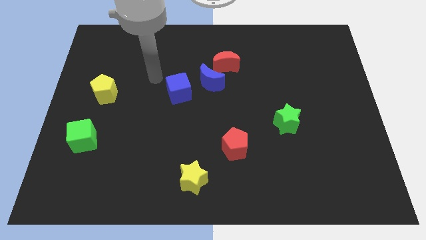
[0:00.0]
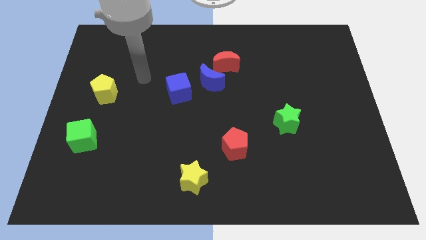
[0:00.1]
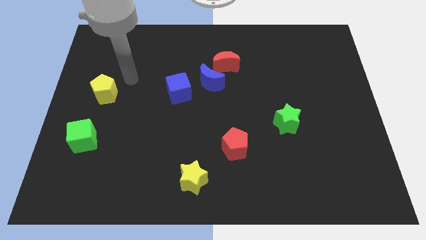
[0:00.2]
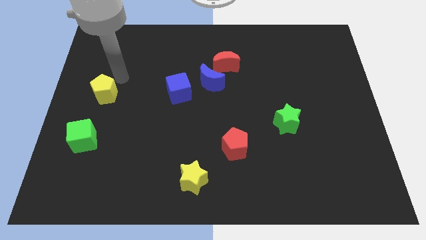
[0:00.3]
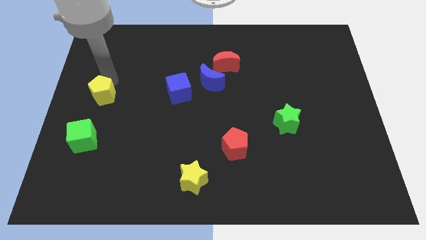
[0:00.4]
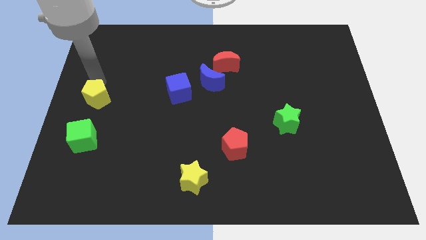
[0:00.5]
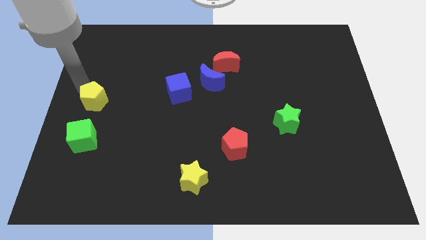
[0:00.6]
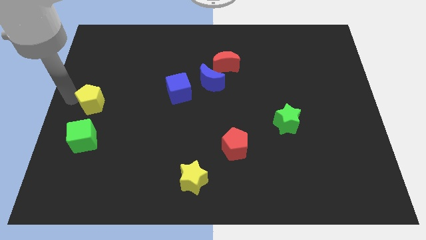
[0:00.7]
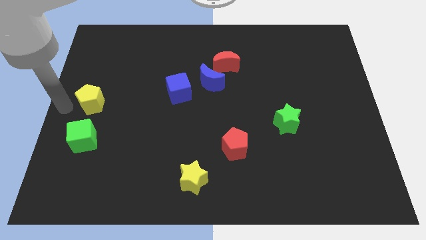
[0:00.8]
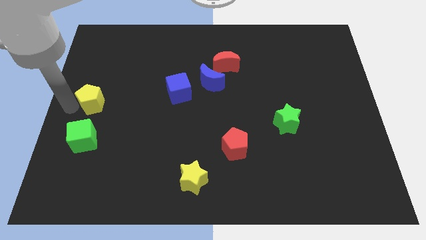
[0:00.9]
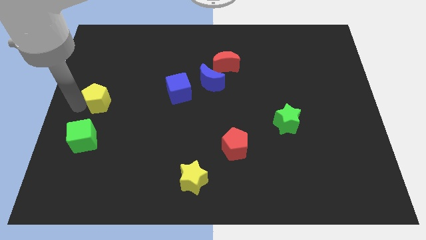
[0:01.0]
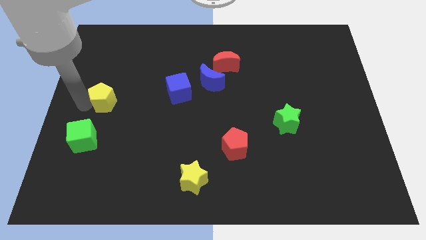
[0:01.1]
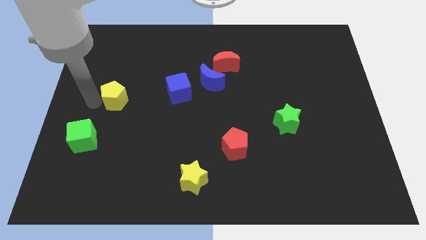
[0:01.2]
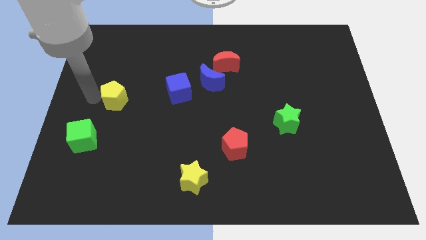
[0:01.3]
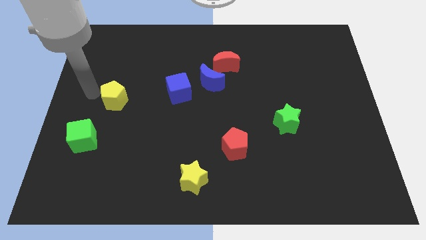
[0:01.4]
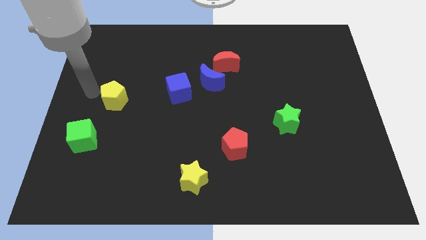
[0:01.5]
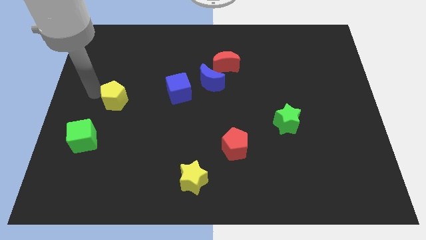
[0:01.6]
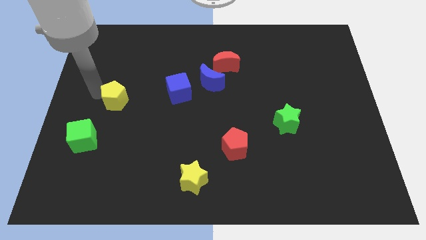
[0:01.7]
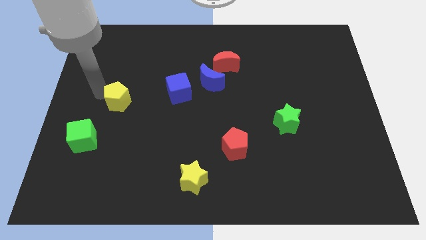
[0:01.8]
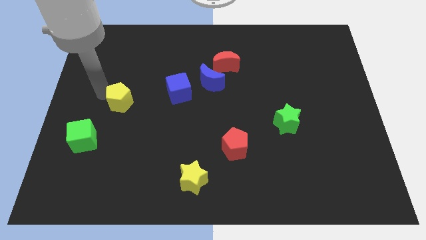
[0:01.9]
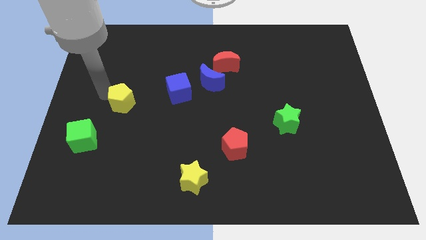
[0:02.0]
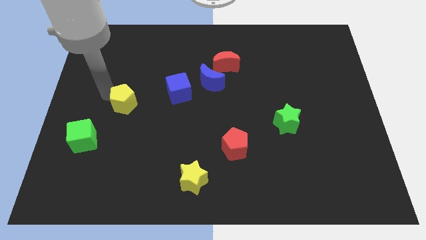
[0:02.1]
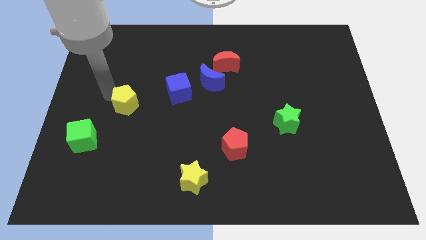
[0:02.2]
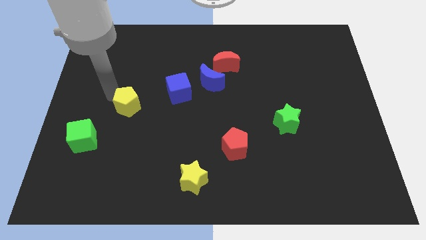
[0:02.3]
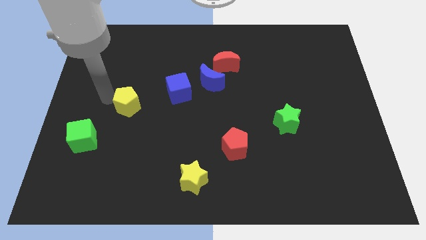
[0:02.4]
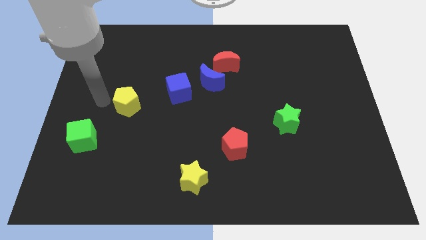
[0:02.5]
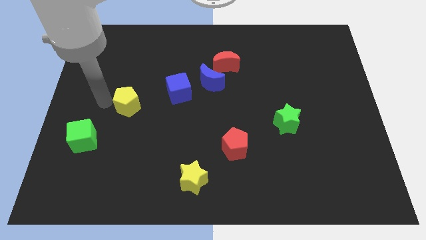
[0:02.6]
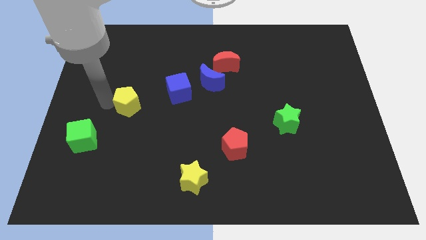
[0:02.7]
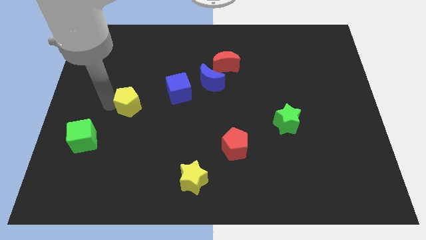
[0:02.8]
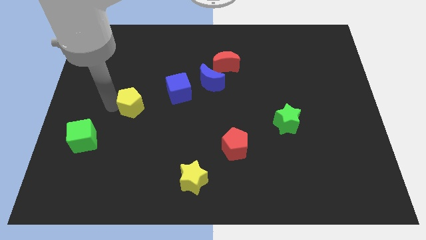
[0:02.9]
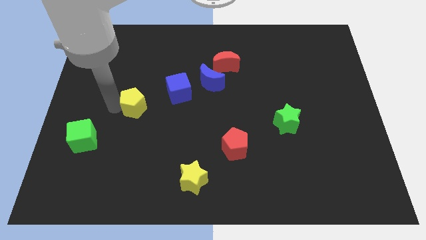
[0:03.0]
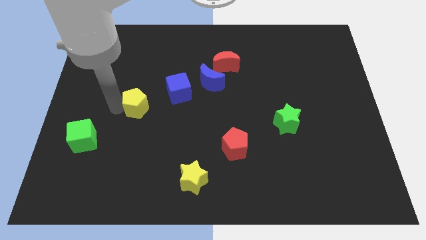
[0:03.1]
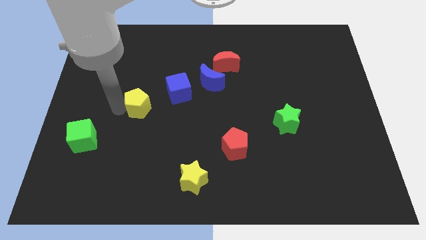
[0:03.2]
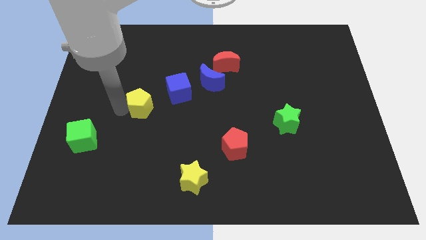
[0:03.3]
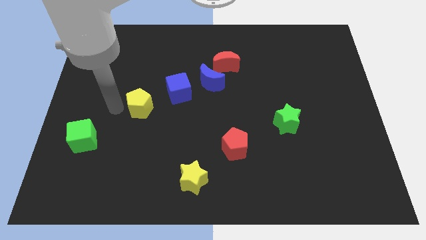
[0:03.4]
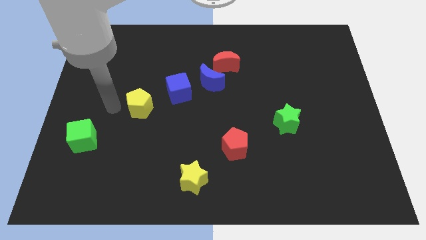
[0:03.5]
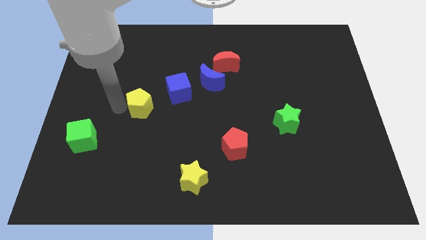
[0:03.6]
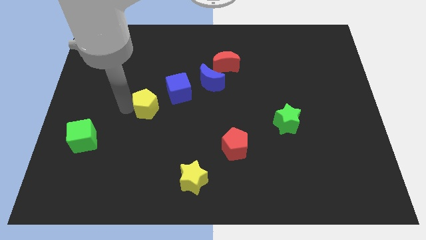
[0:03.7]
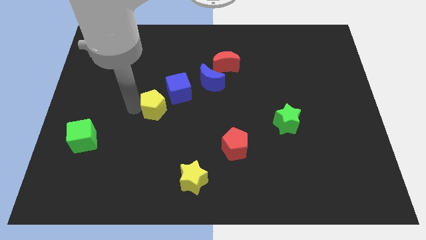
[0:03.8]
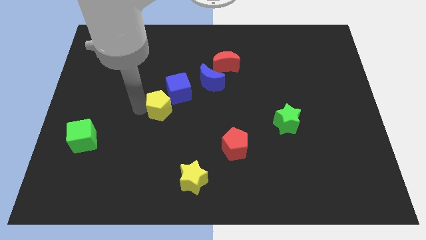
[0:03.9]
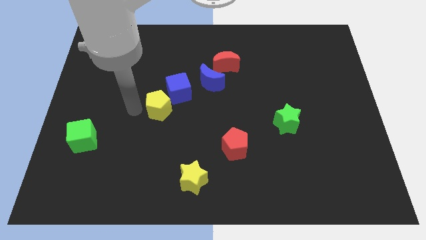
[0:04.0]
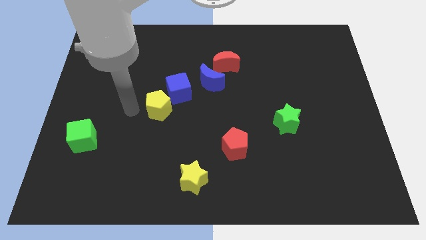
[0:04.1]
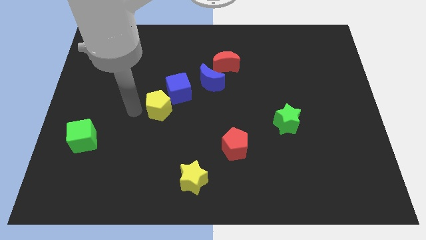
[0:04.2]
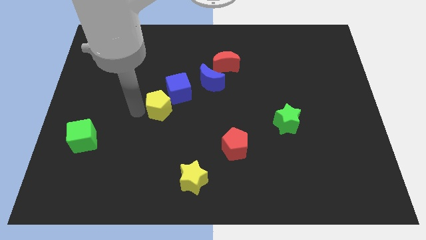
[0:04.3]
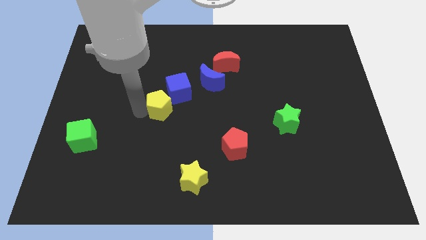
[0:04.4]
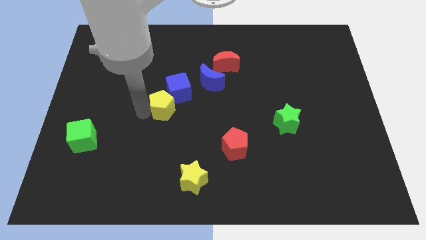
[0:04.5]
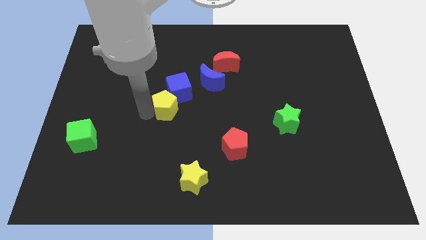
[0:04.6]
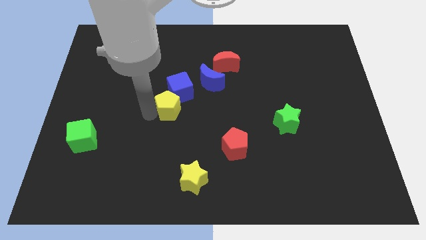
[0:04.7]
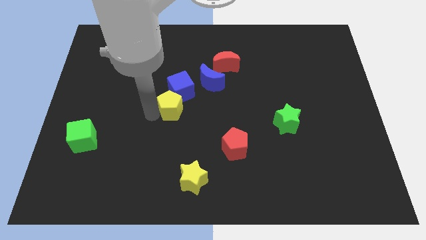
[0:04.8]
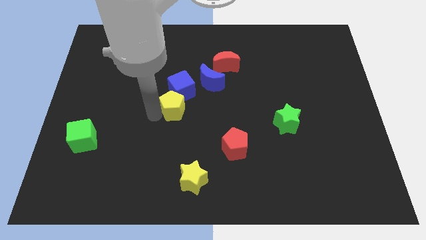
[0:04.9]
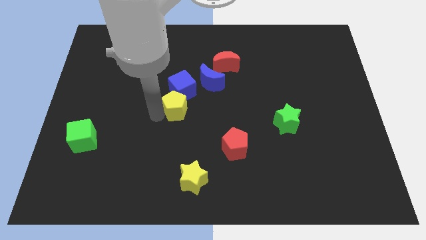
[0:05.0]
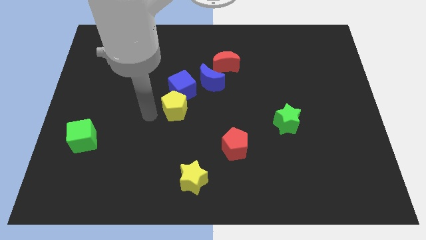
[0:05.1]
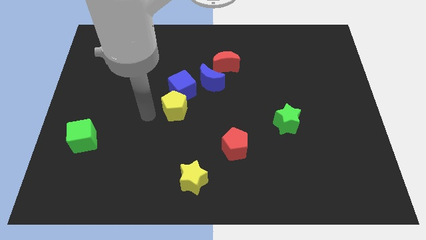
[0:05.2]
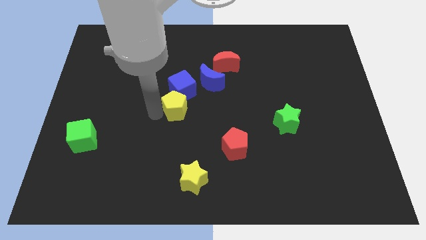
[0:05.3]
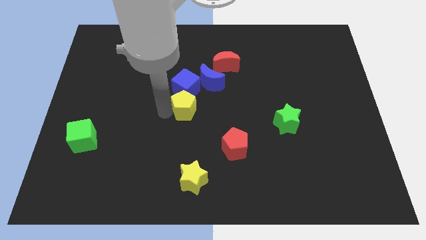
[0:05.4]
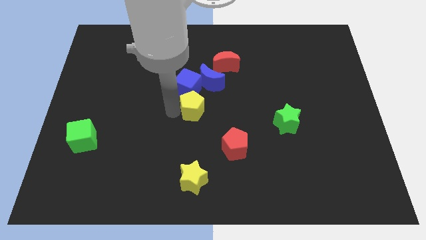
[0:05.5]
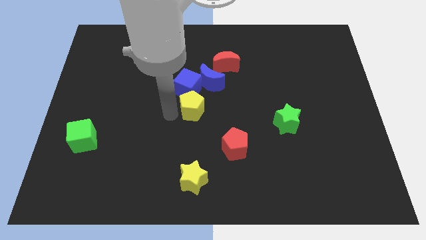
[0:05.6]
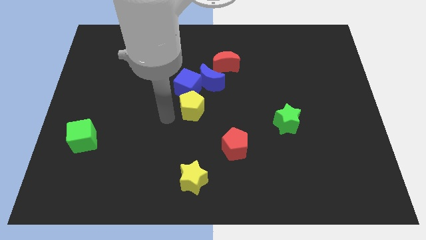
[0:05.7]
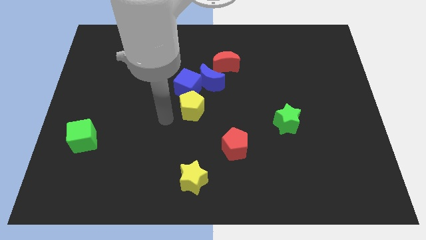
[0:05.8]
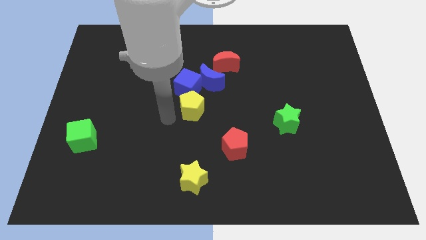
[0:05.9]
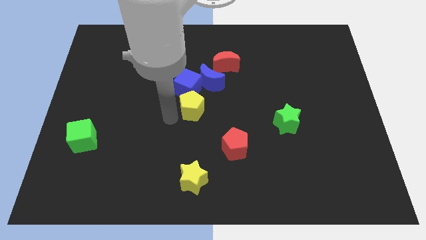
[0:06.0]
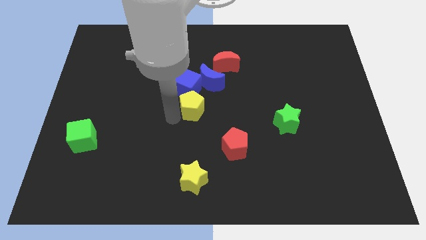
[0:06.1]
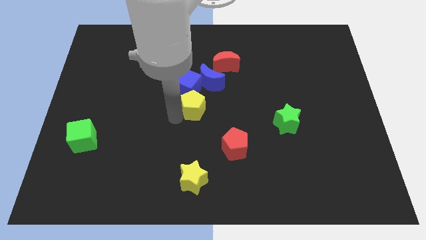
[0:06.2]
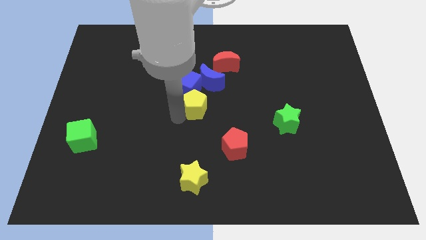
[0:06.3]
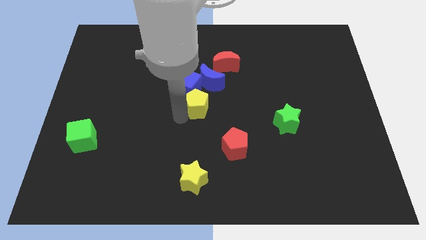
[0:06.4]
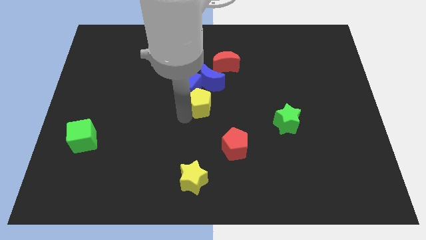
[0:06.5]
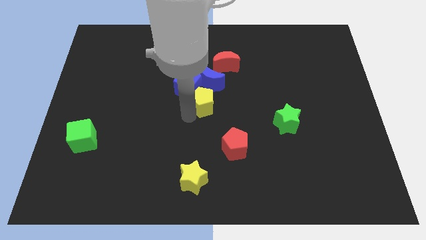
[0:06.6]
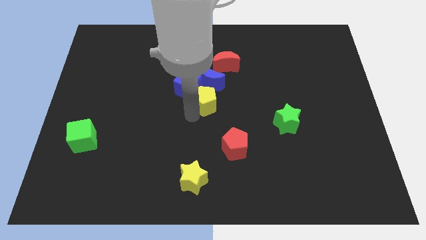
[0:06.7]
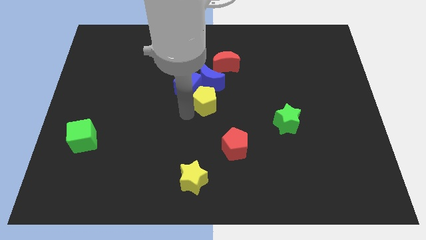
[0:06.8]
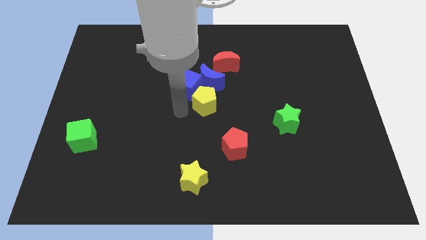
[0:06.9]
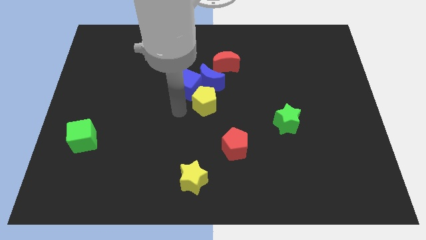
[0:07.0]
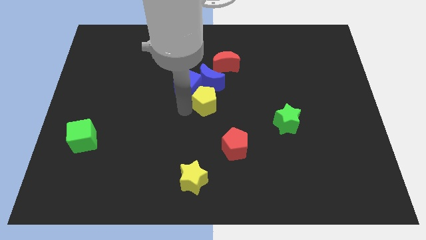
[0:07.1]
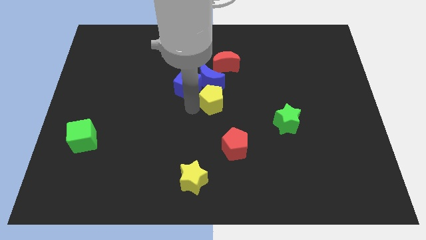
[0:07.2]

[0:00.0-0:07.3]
push the yellow pentagon to the bottom right of the blue moon
